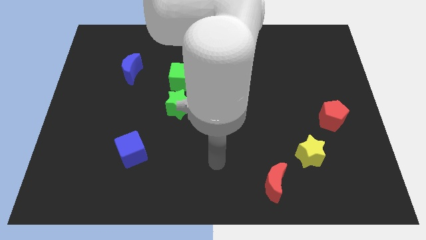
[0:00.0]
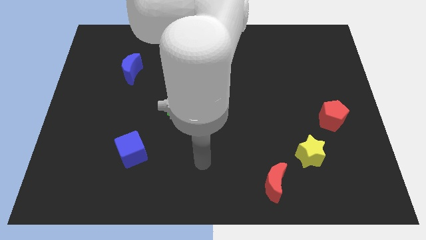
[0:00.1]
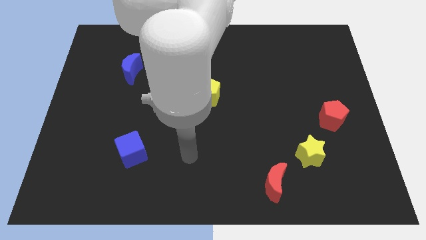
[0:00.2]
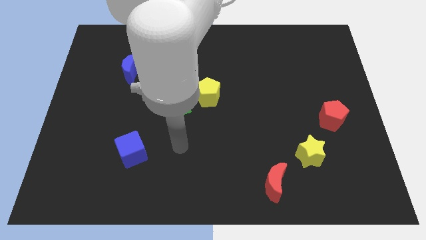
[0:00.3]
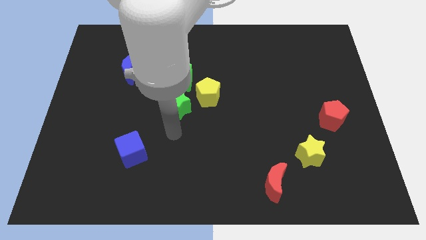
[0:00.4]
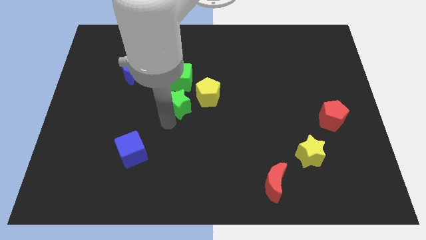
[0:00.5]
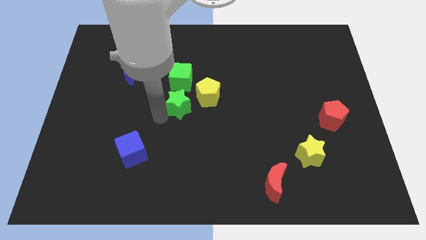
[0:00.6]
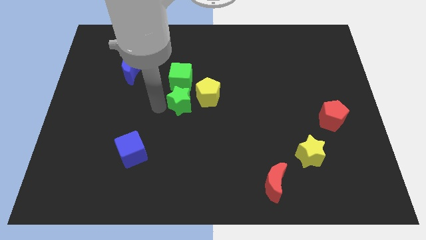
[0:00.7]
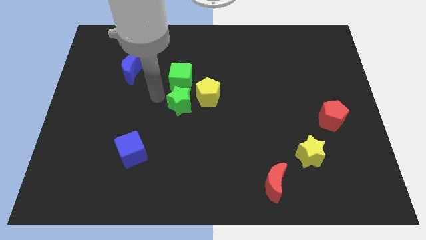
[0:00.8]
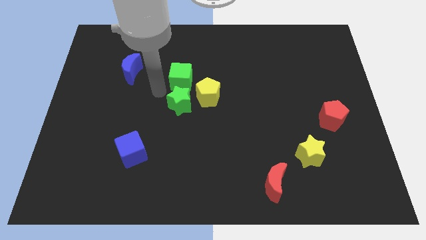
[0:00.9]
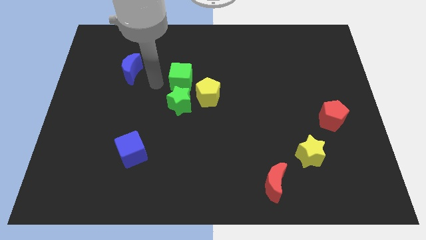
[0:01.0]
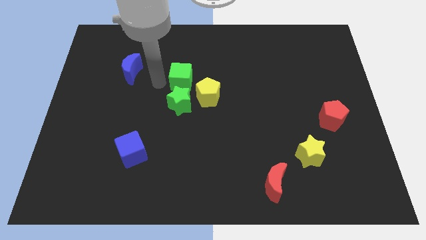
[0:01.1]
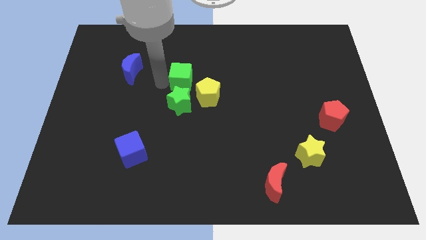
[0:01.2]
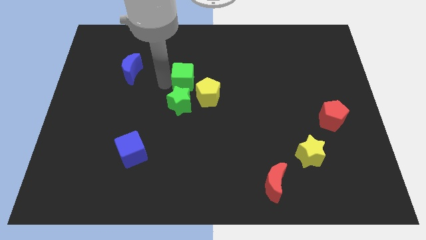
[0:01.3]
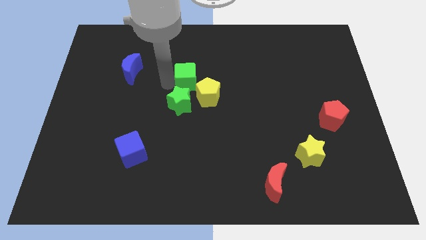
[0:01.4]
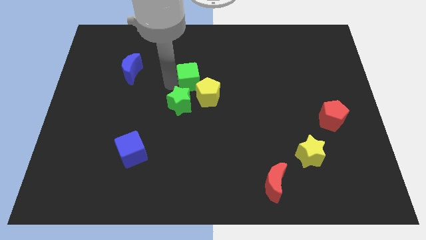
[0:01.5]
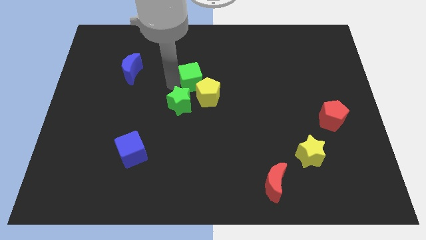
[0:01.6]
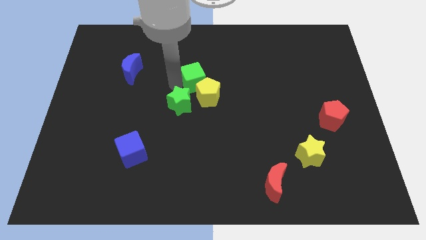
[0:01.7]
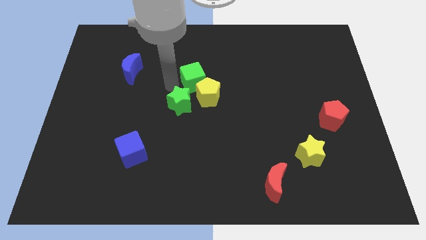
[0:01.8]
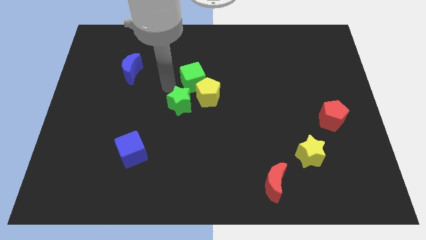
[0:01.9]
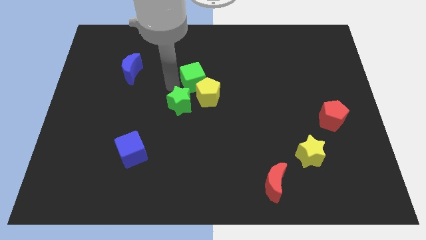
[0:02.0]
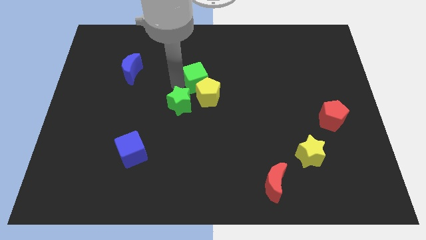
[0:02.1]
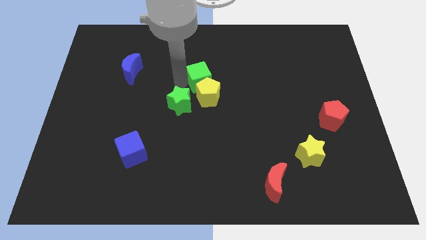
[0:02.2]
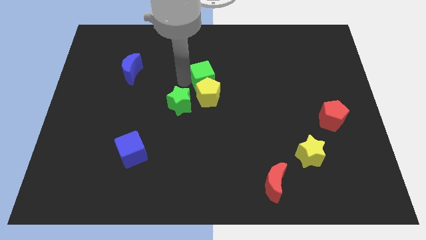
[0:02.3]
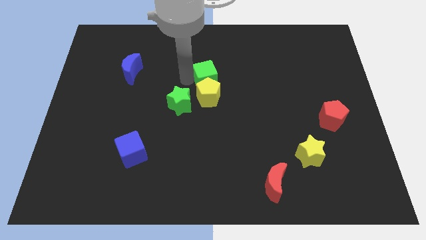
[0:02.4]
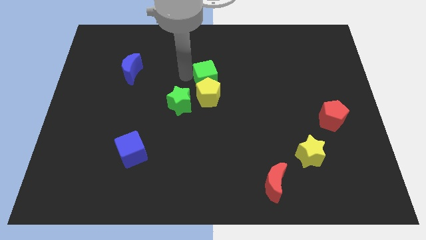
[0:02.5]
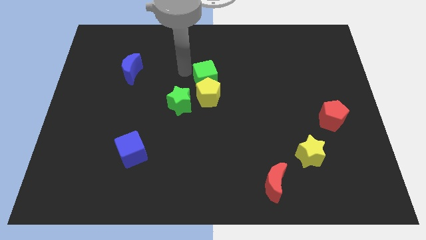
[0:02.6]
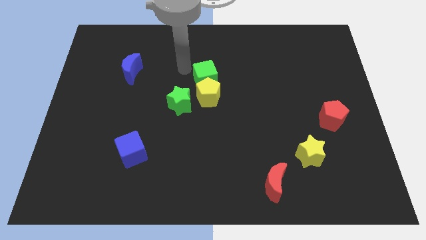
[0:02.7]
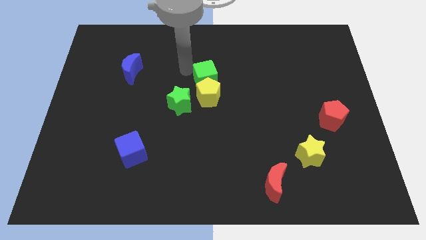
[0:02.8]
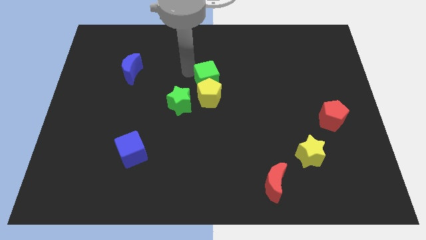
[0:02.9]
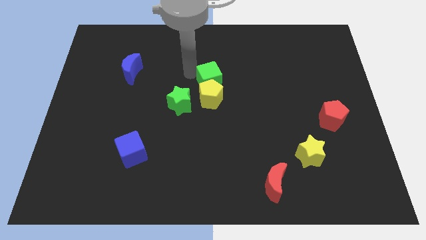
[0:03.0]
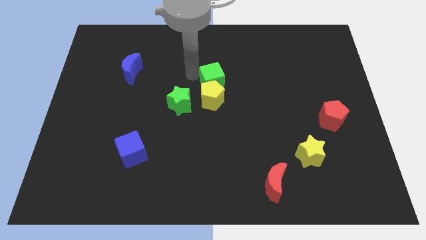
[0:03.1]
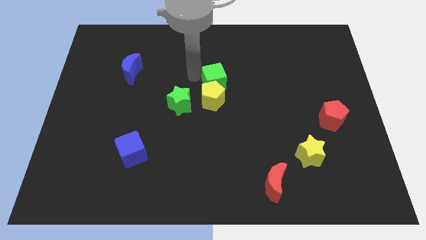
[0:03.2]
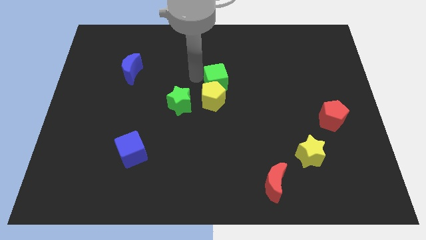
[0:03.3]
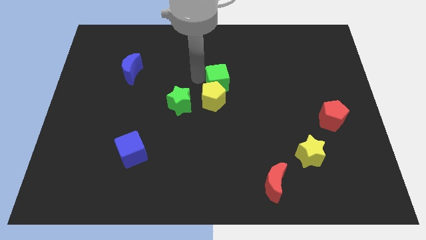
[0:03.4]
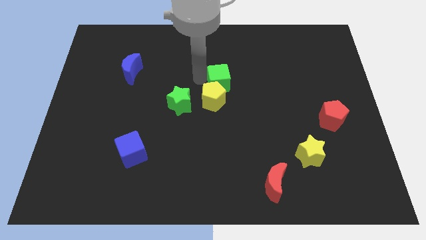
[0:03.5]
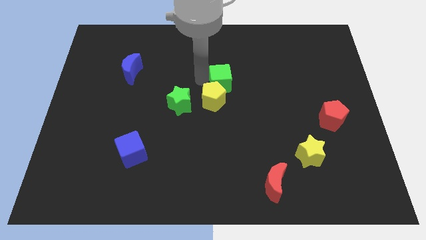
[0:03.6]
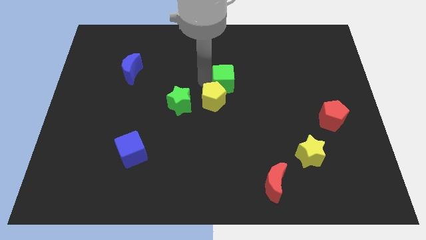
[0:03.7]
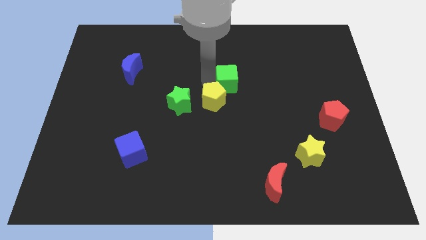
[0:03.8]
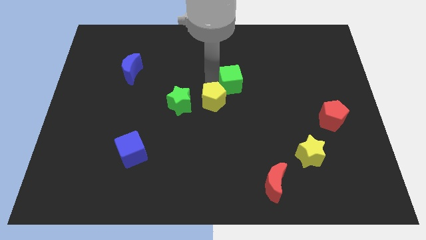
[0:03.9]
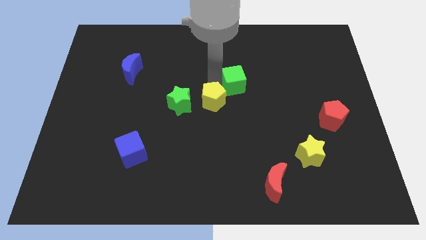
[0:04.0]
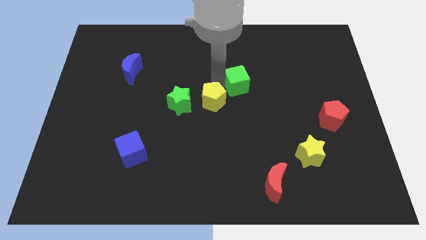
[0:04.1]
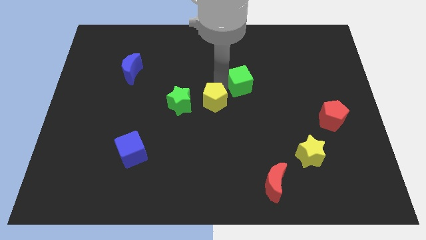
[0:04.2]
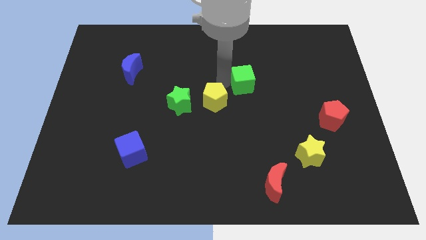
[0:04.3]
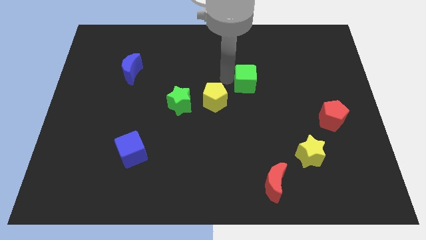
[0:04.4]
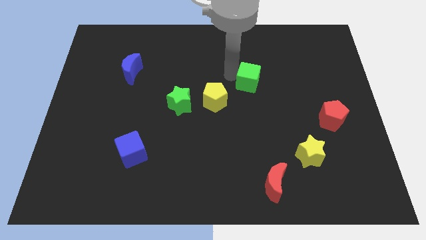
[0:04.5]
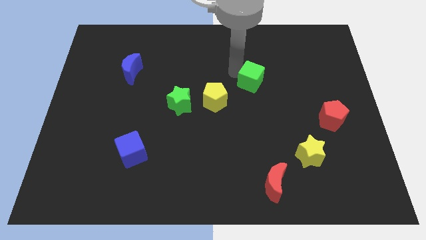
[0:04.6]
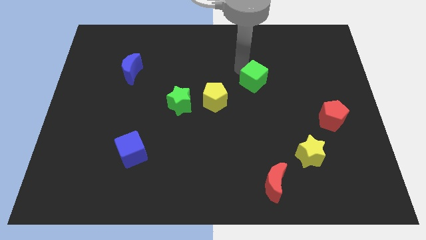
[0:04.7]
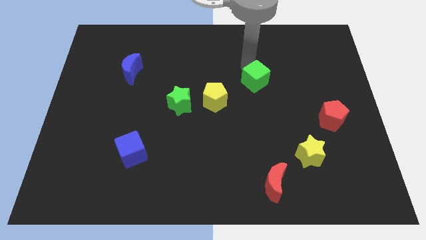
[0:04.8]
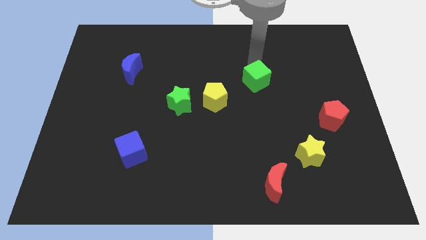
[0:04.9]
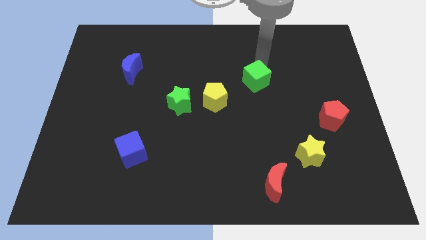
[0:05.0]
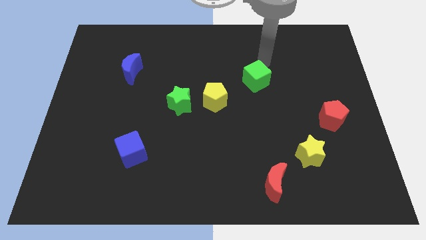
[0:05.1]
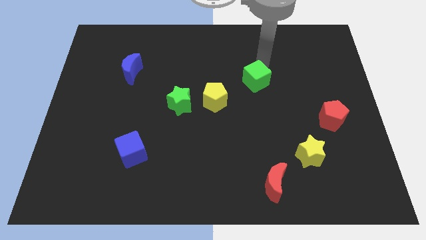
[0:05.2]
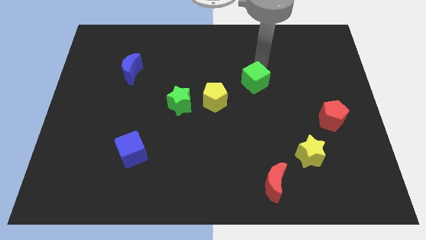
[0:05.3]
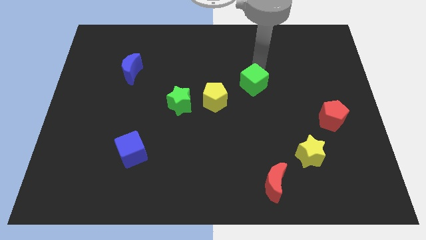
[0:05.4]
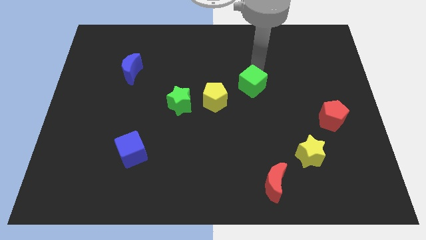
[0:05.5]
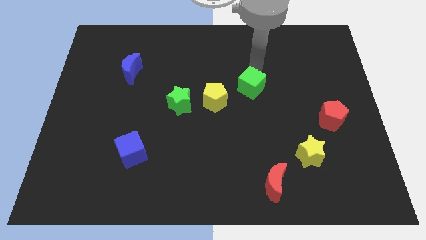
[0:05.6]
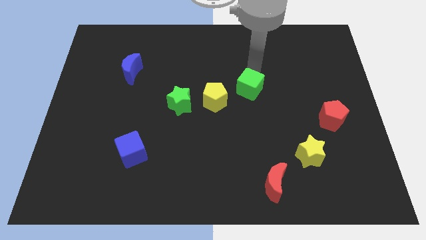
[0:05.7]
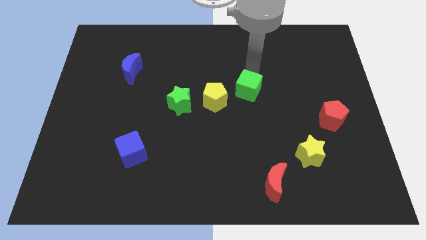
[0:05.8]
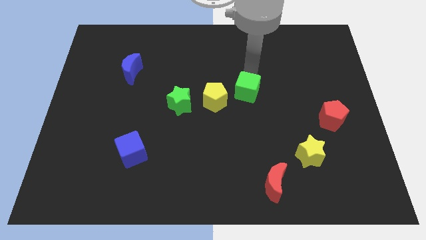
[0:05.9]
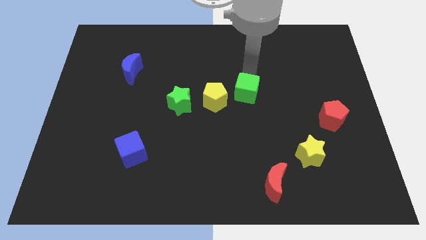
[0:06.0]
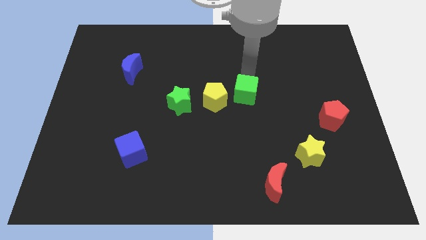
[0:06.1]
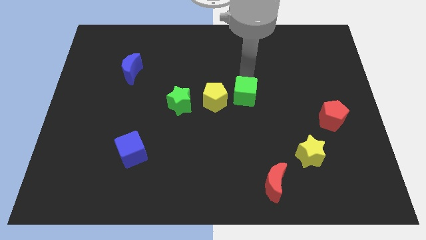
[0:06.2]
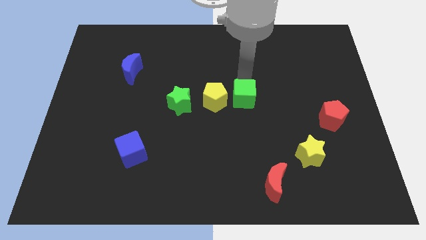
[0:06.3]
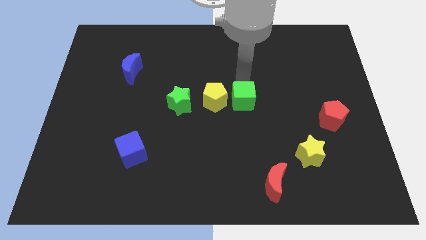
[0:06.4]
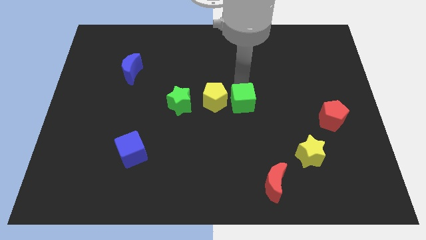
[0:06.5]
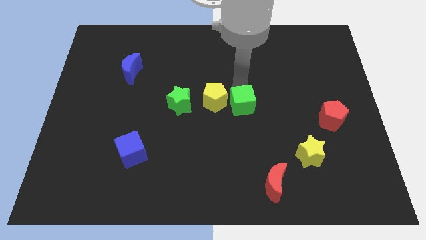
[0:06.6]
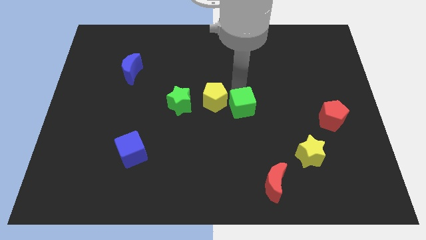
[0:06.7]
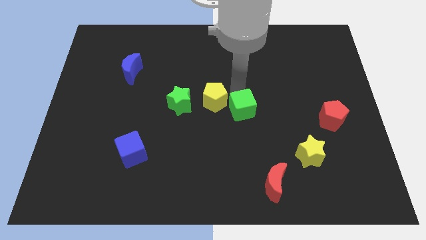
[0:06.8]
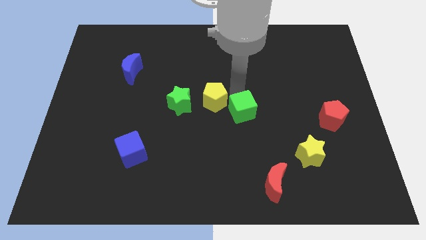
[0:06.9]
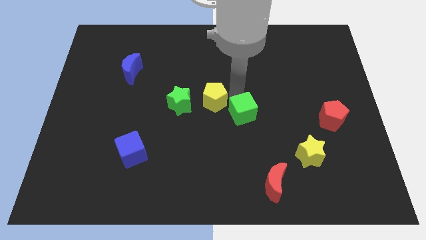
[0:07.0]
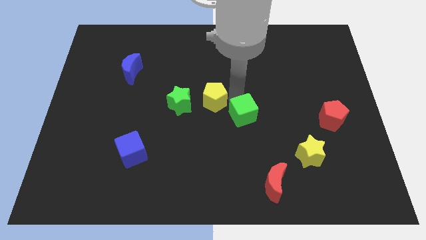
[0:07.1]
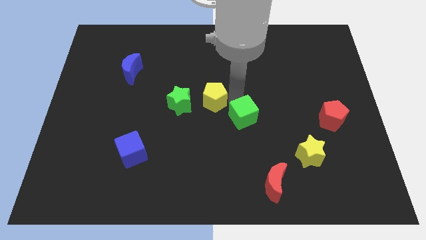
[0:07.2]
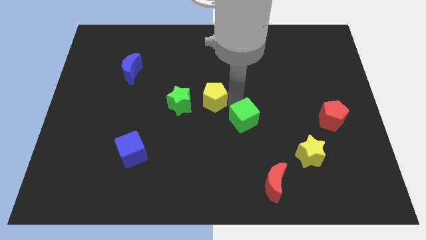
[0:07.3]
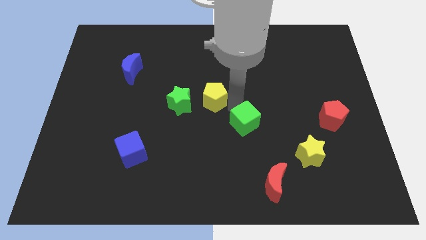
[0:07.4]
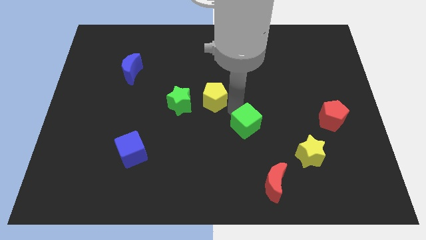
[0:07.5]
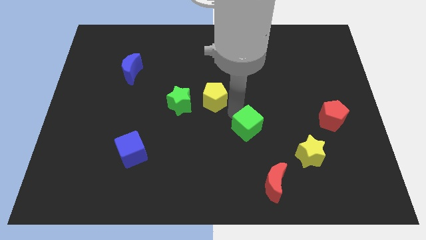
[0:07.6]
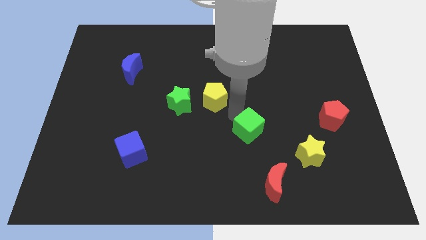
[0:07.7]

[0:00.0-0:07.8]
put the green cube to the top side of the red moon
